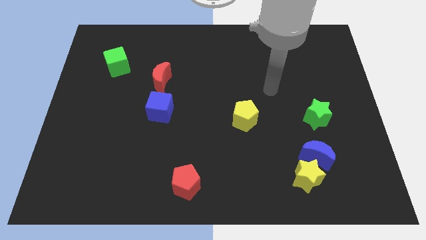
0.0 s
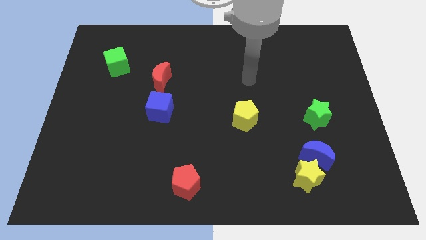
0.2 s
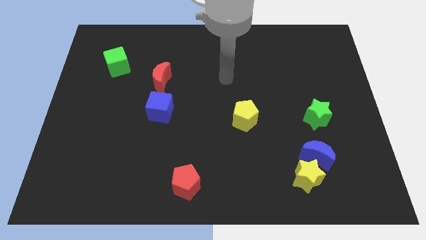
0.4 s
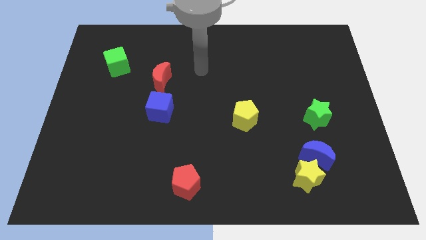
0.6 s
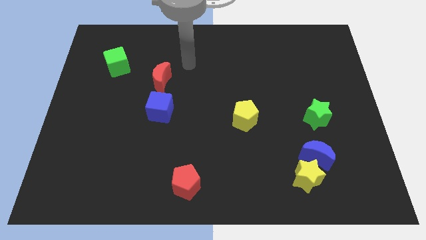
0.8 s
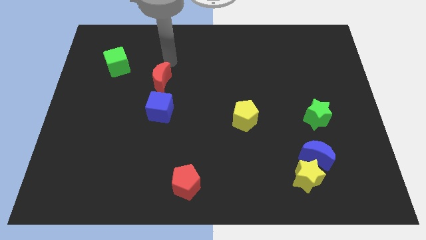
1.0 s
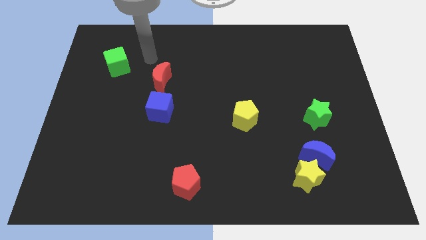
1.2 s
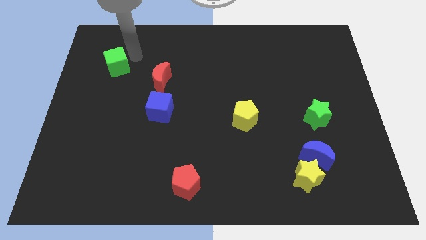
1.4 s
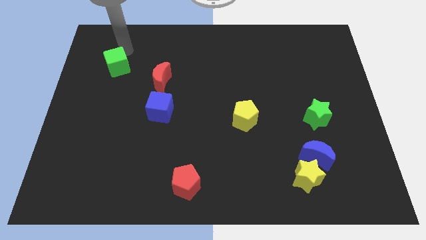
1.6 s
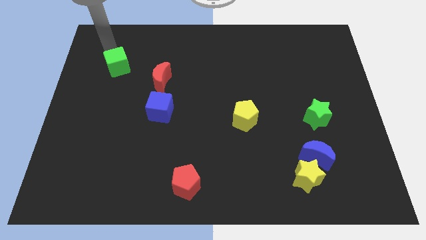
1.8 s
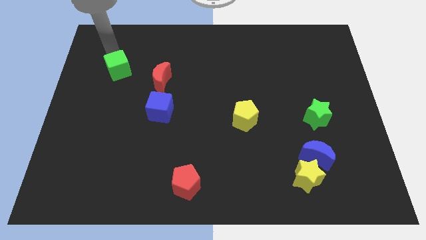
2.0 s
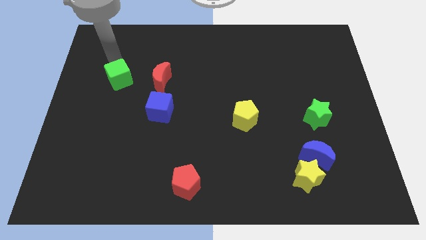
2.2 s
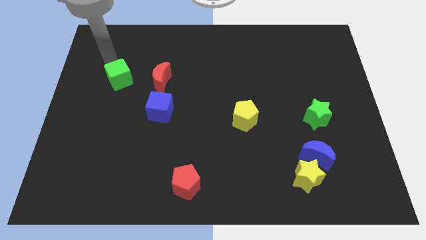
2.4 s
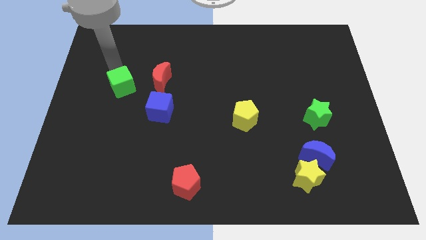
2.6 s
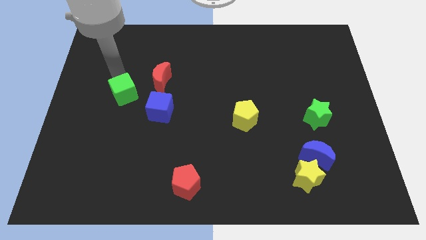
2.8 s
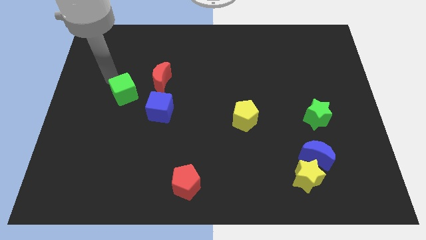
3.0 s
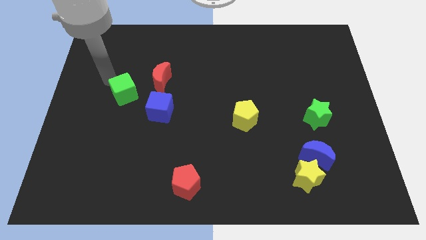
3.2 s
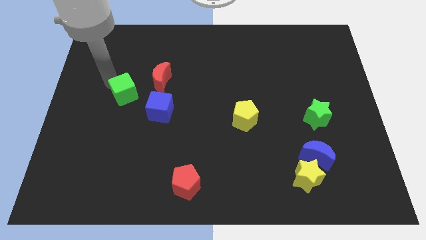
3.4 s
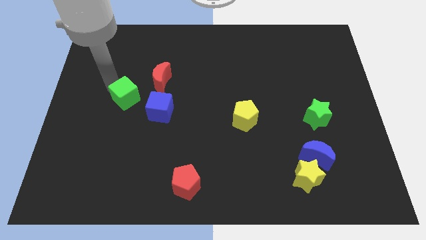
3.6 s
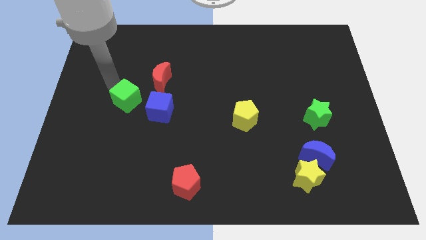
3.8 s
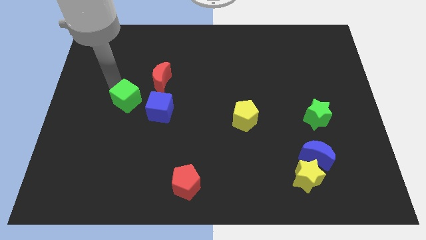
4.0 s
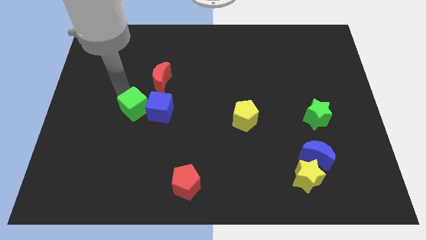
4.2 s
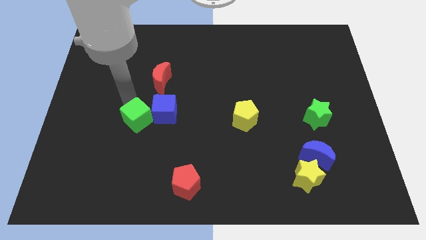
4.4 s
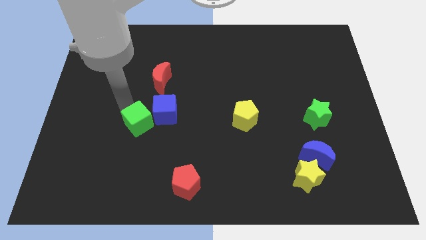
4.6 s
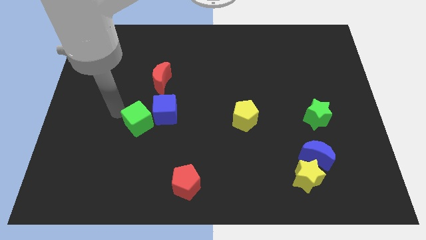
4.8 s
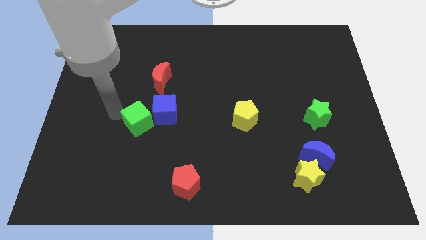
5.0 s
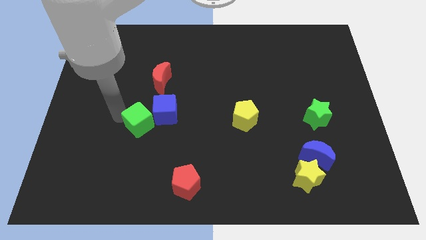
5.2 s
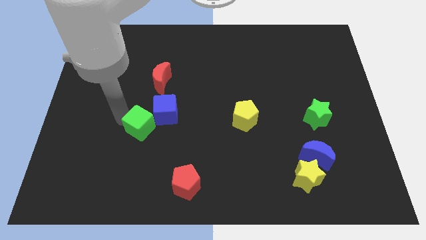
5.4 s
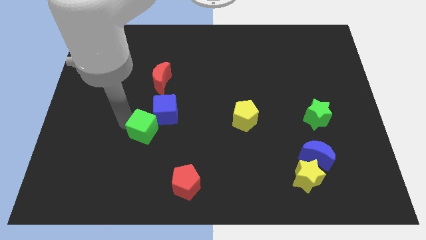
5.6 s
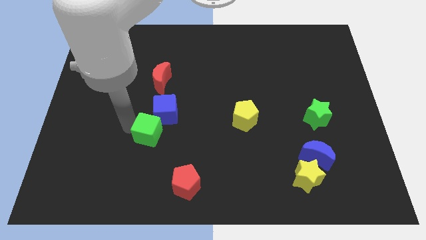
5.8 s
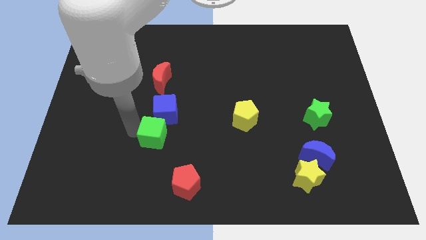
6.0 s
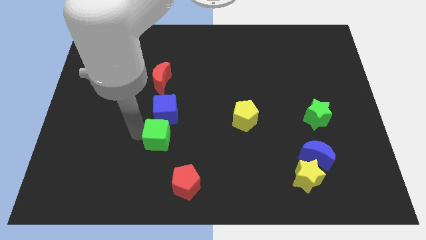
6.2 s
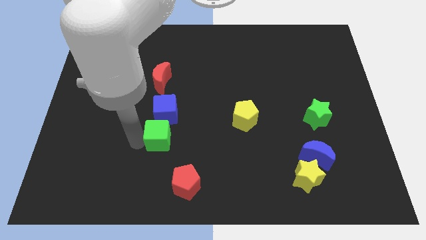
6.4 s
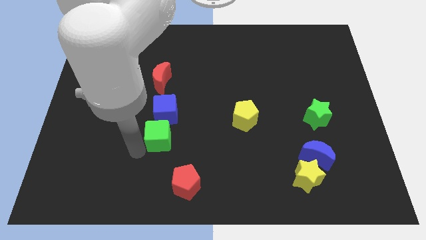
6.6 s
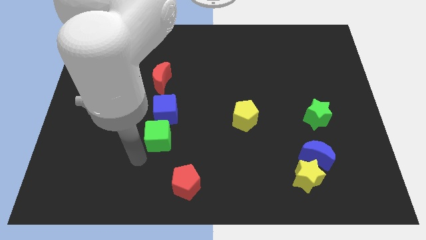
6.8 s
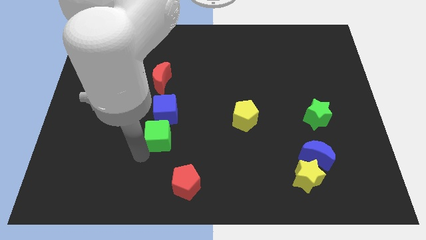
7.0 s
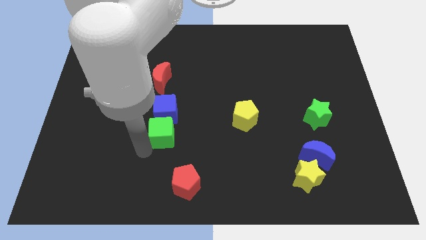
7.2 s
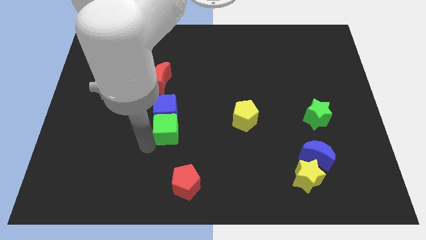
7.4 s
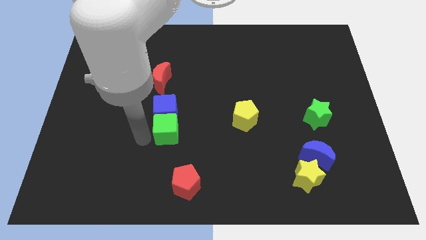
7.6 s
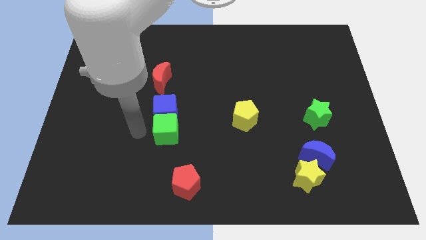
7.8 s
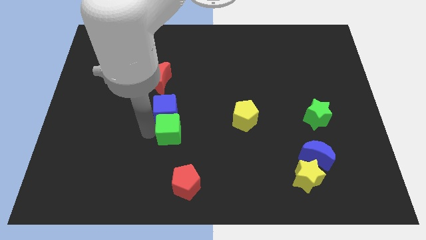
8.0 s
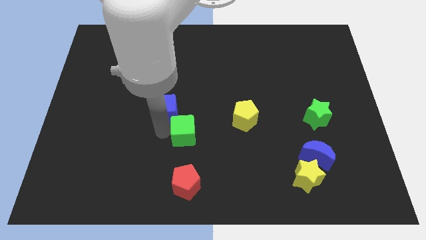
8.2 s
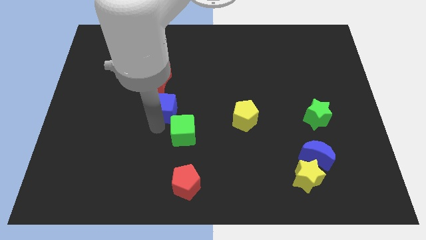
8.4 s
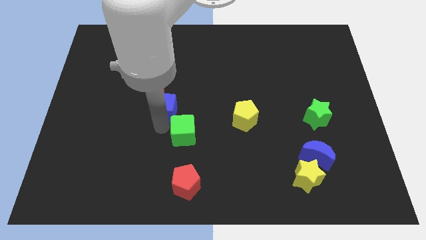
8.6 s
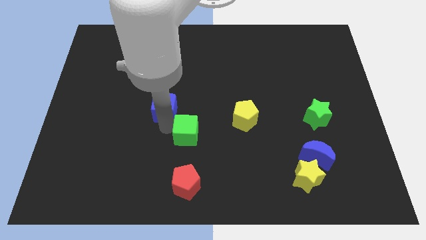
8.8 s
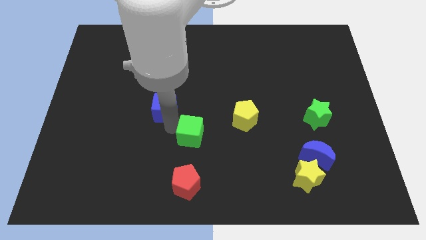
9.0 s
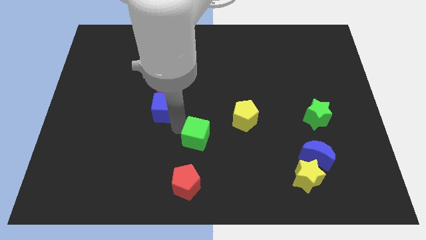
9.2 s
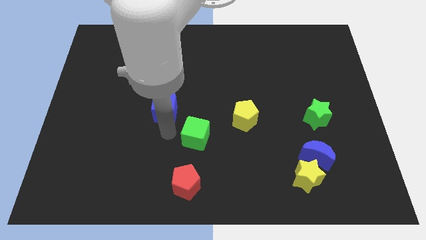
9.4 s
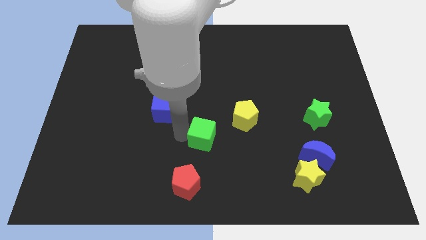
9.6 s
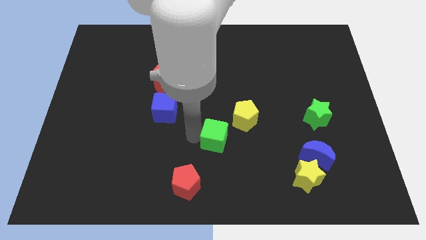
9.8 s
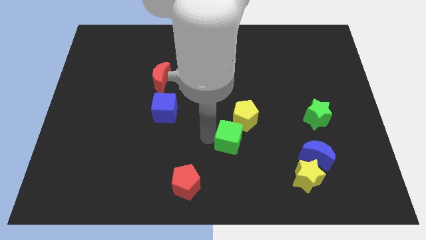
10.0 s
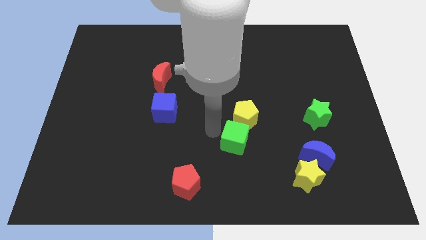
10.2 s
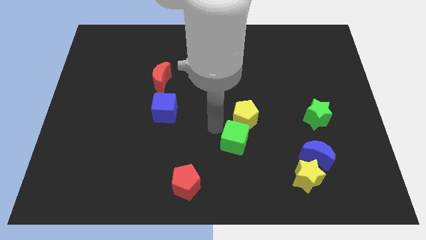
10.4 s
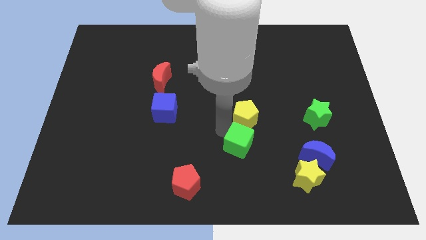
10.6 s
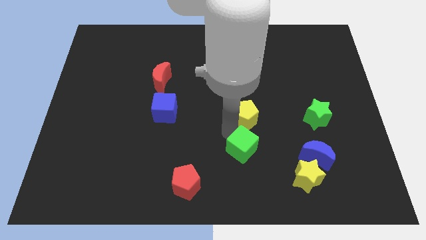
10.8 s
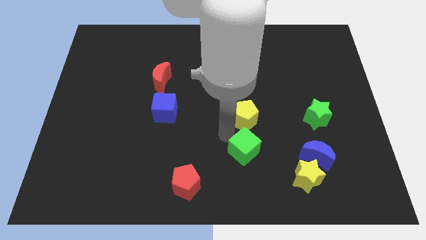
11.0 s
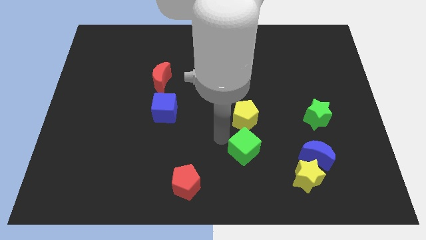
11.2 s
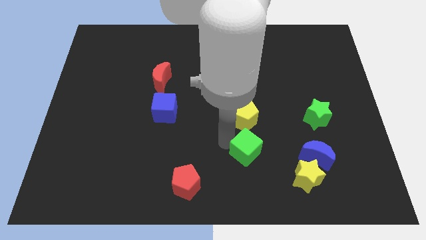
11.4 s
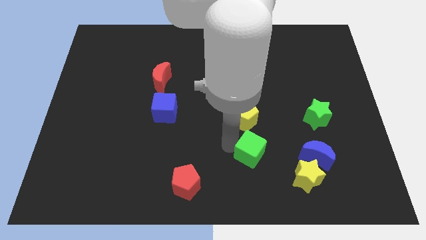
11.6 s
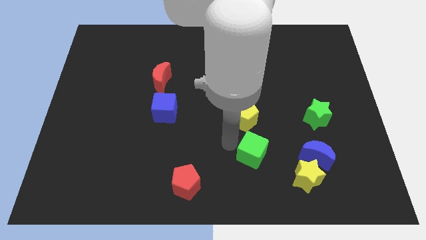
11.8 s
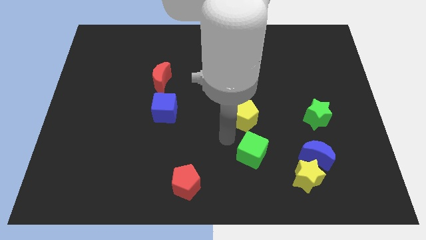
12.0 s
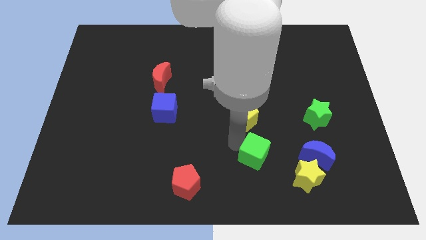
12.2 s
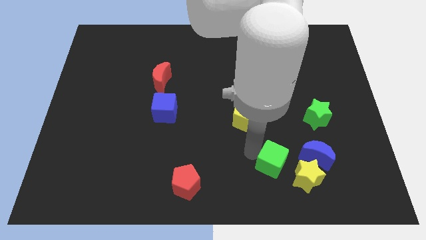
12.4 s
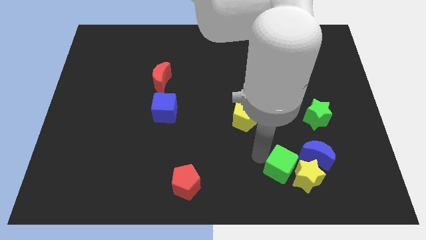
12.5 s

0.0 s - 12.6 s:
put the green cube diagonally down and to the left of the blue moon

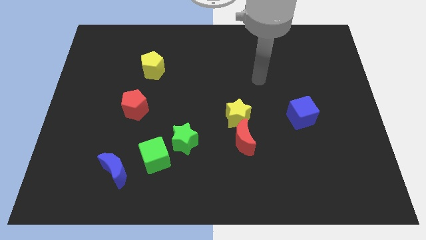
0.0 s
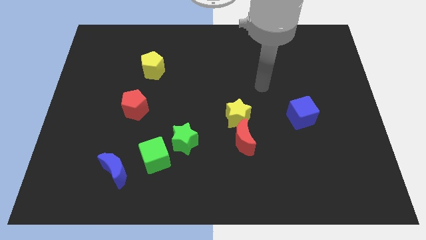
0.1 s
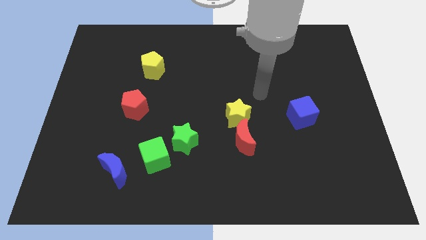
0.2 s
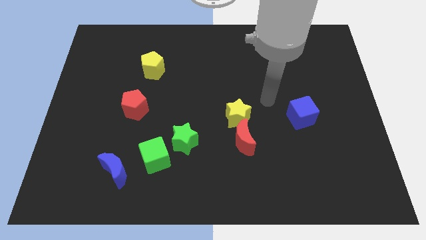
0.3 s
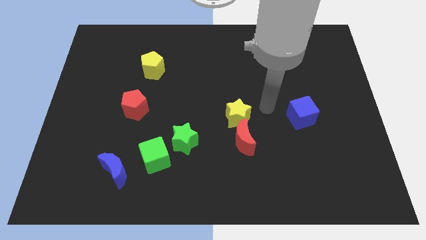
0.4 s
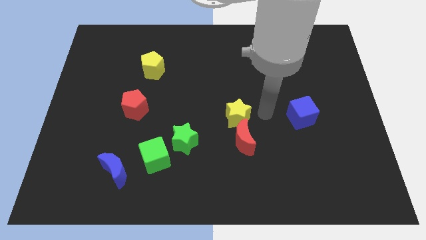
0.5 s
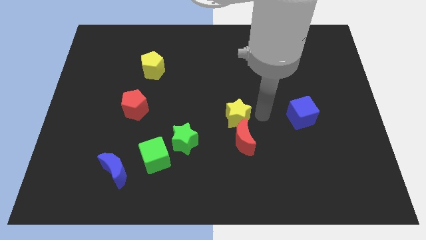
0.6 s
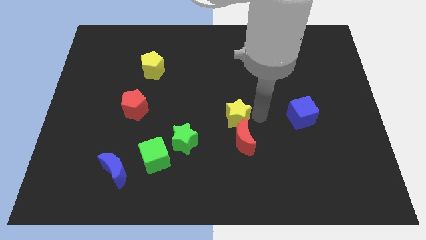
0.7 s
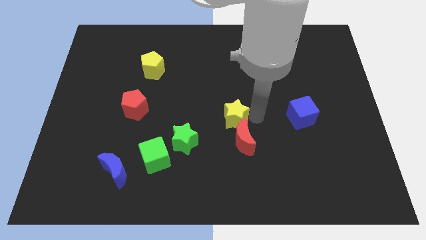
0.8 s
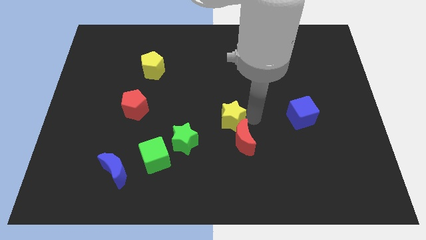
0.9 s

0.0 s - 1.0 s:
slide the yellow star diagonally up and to the right of the green star
